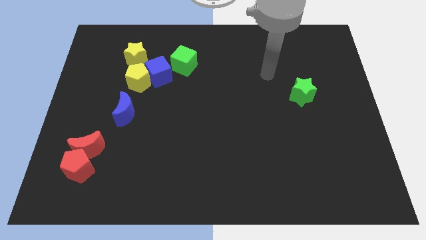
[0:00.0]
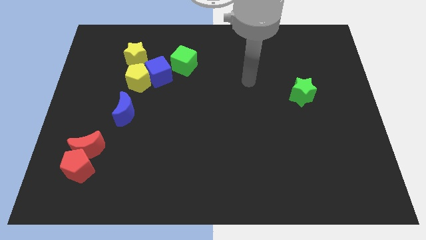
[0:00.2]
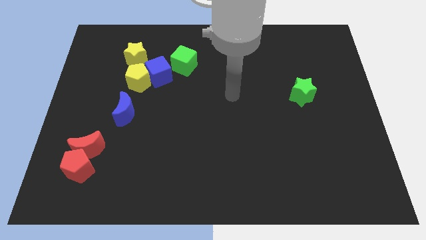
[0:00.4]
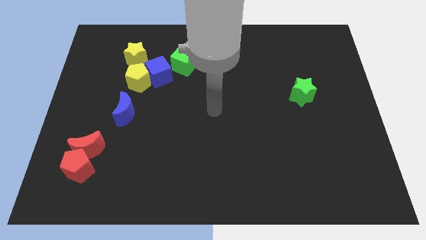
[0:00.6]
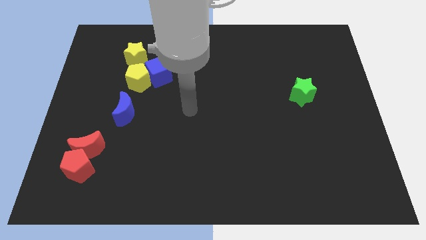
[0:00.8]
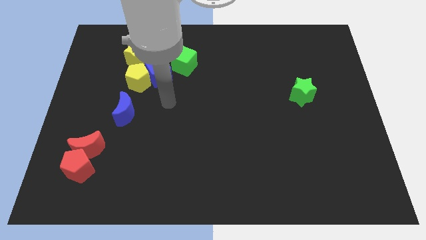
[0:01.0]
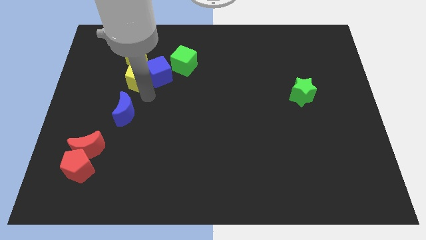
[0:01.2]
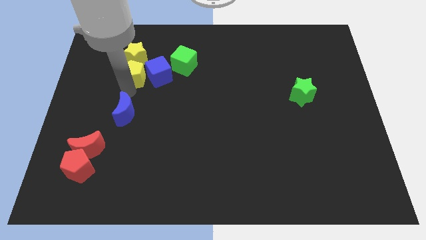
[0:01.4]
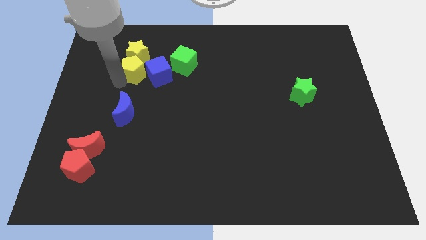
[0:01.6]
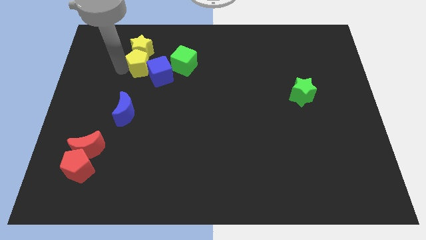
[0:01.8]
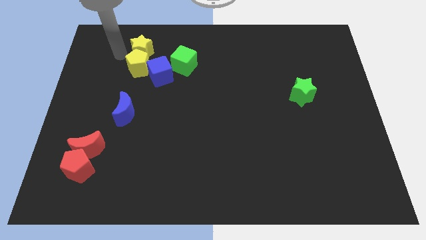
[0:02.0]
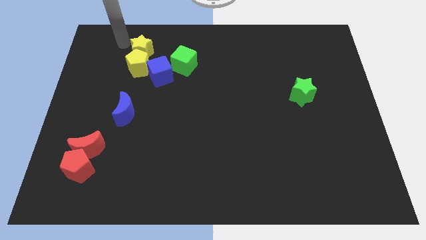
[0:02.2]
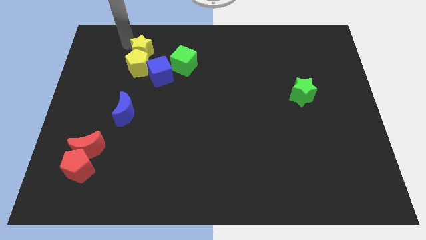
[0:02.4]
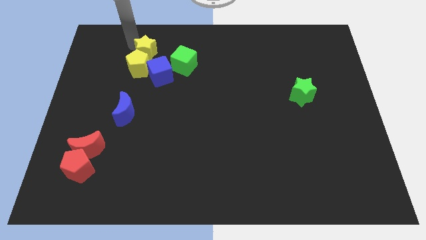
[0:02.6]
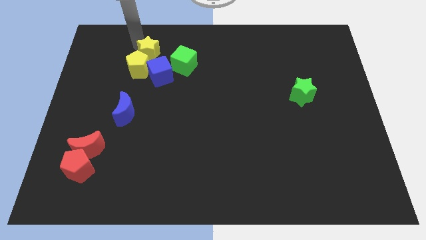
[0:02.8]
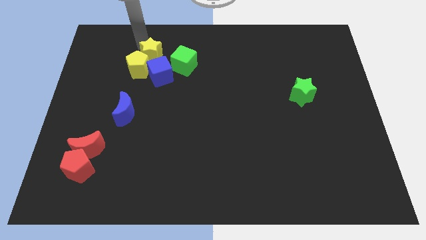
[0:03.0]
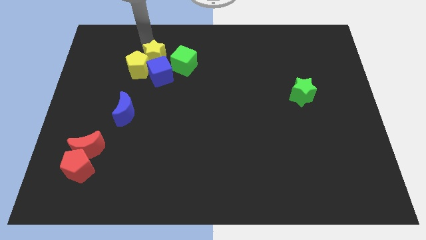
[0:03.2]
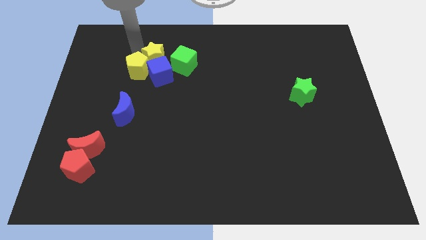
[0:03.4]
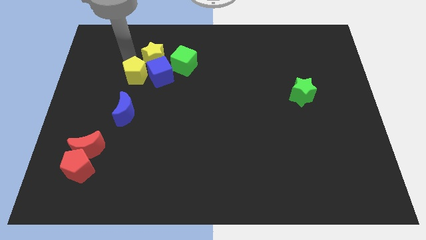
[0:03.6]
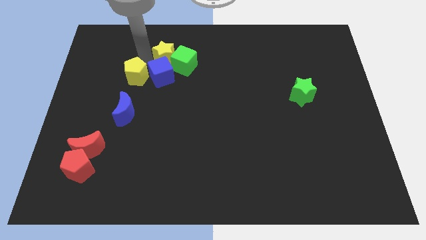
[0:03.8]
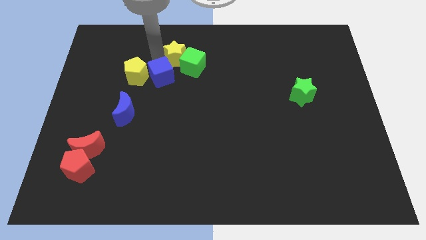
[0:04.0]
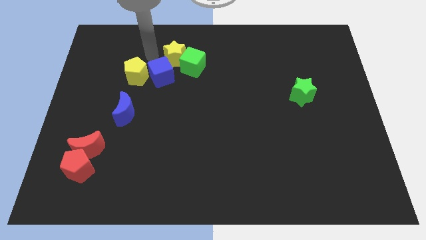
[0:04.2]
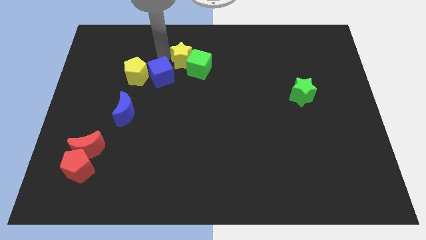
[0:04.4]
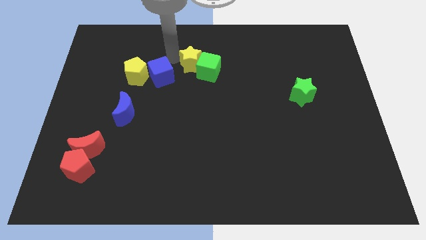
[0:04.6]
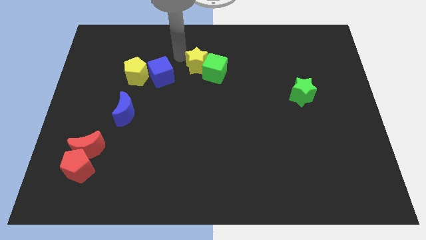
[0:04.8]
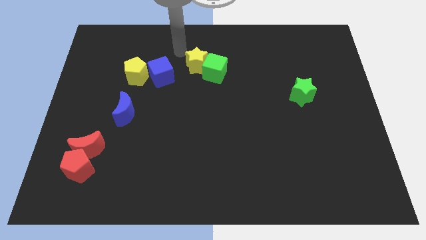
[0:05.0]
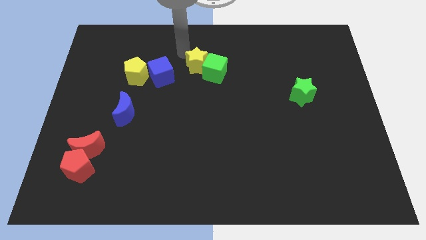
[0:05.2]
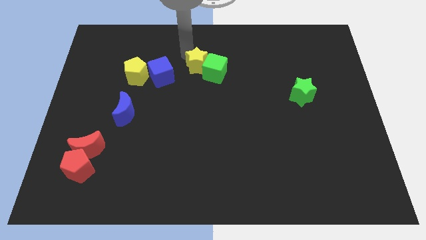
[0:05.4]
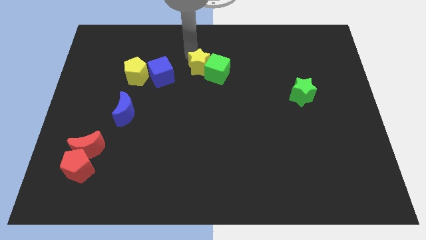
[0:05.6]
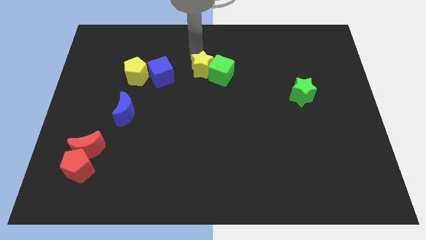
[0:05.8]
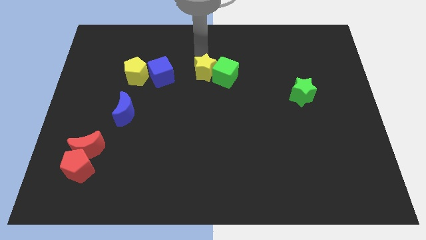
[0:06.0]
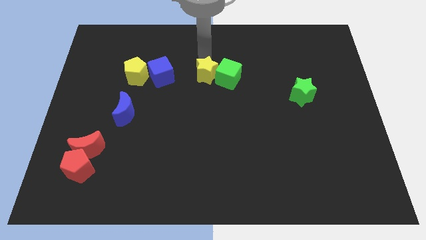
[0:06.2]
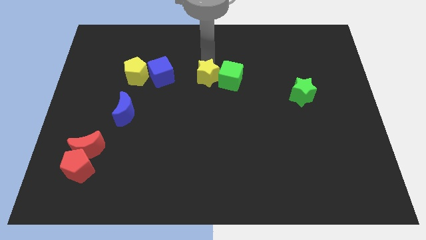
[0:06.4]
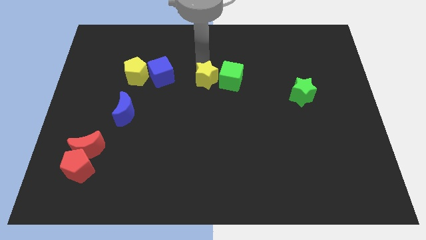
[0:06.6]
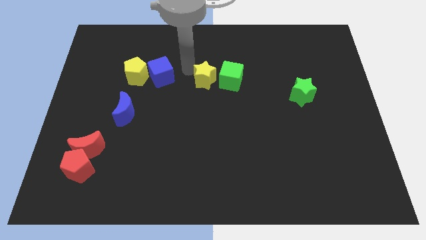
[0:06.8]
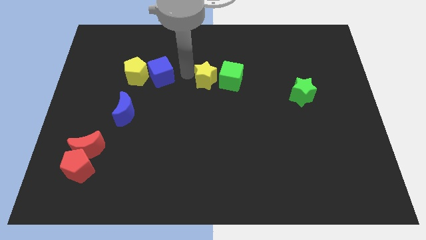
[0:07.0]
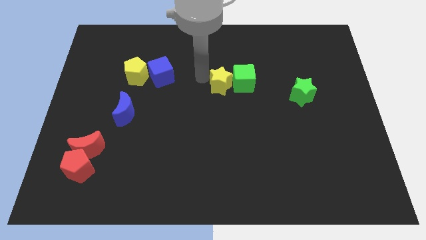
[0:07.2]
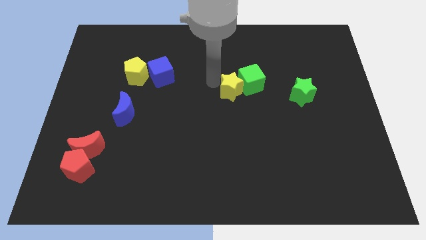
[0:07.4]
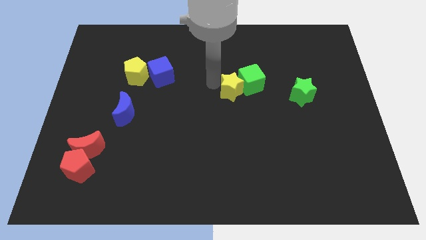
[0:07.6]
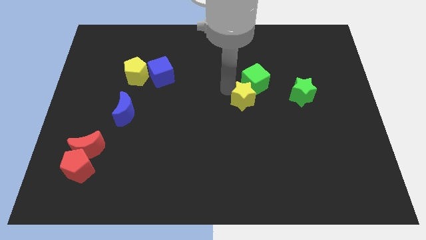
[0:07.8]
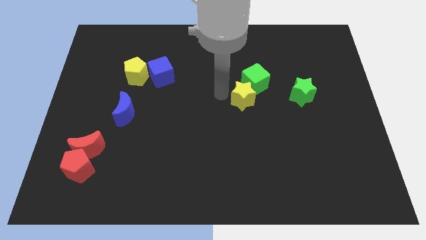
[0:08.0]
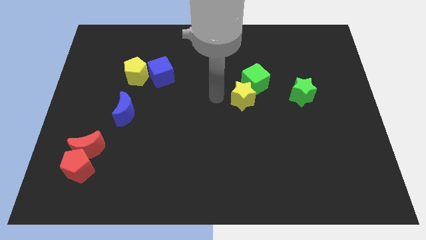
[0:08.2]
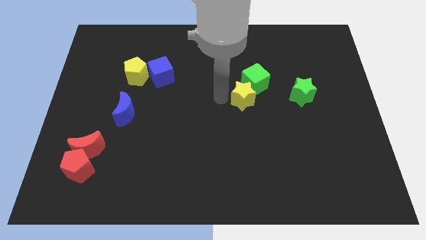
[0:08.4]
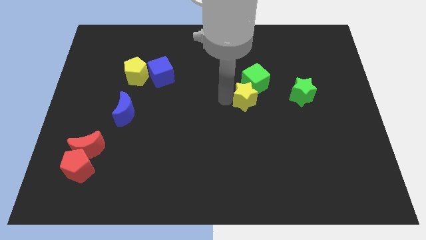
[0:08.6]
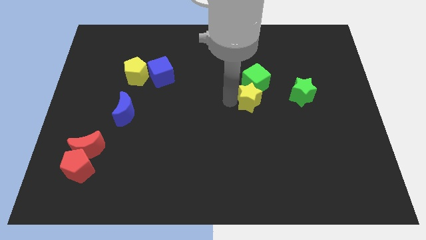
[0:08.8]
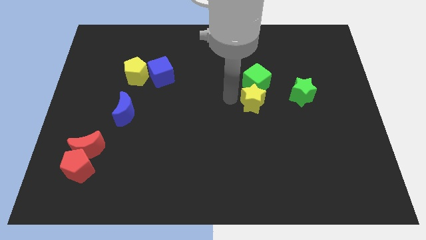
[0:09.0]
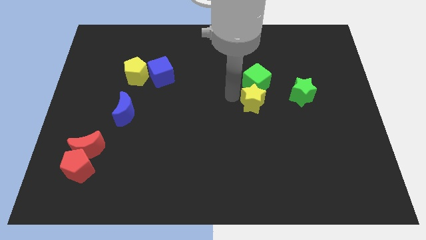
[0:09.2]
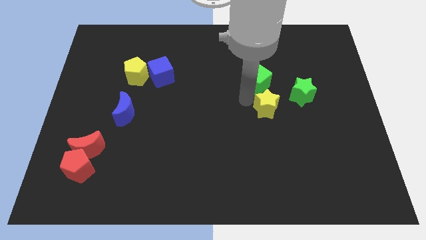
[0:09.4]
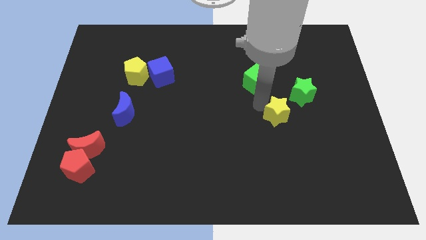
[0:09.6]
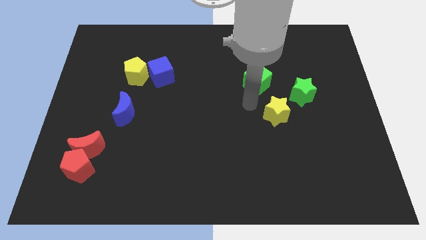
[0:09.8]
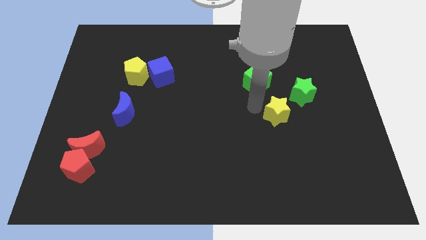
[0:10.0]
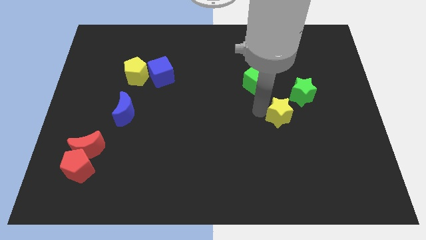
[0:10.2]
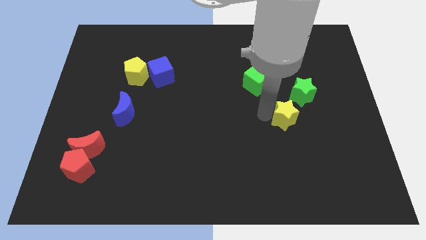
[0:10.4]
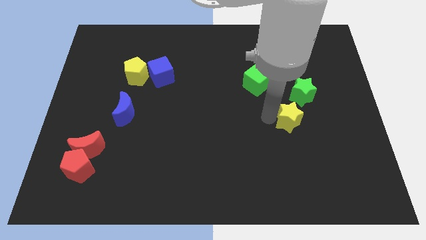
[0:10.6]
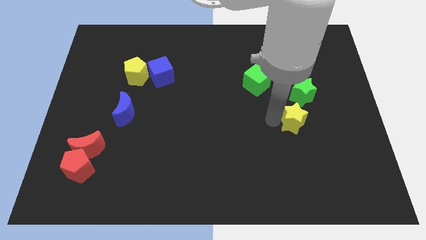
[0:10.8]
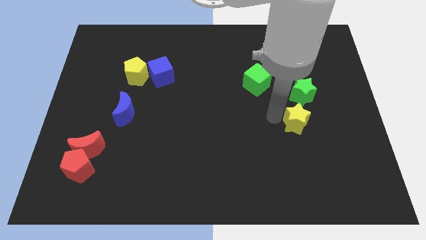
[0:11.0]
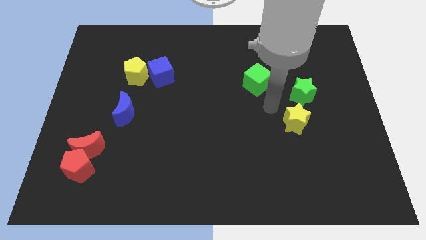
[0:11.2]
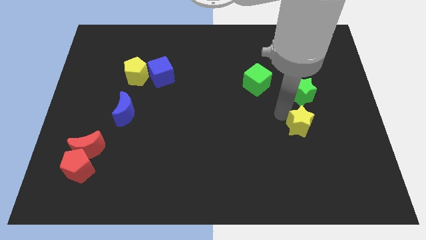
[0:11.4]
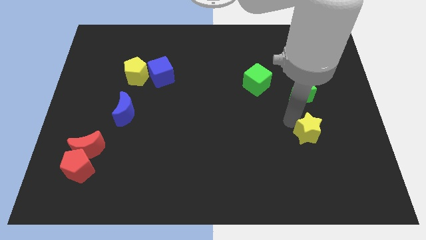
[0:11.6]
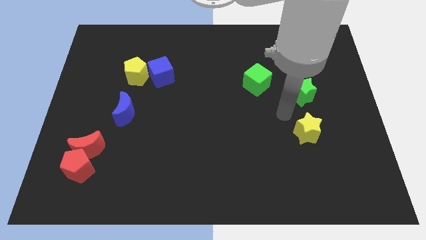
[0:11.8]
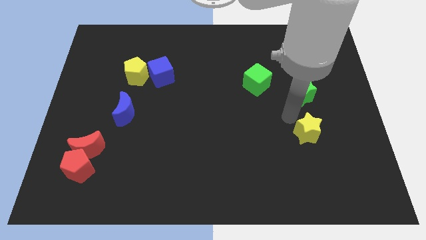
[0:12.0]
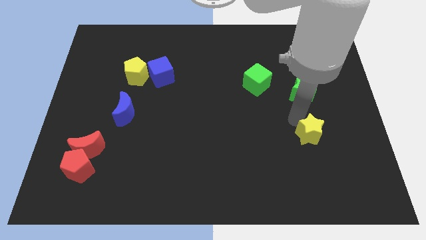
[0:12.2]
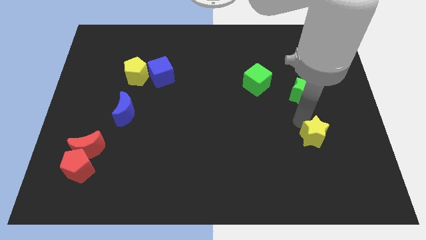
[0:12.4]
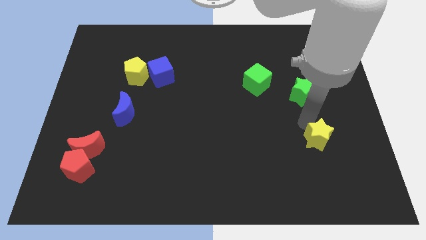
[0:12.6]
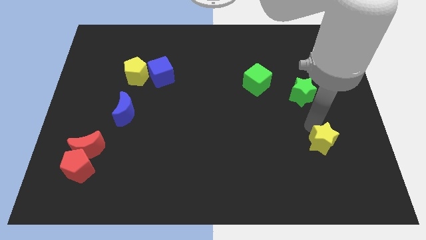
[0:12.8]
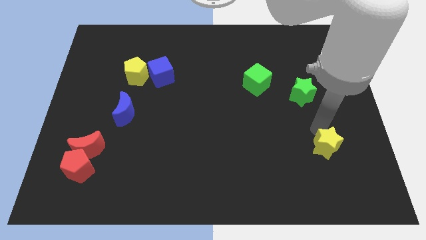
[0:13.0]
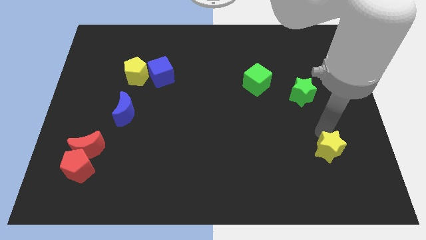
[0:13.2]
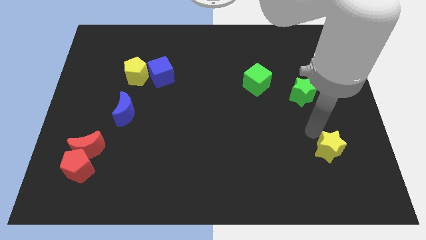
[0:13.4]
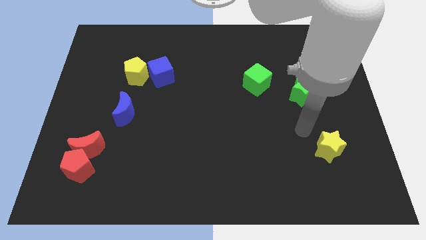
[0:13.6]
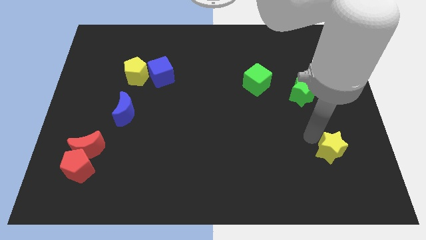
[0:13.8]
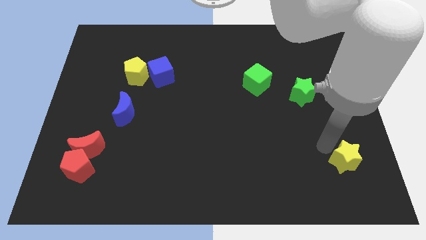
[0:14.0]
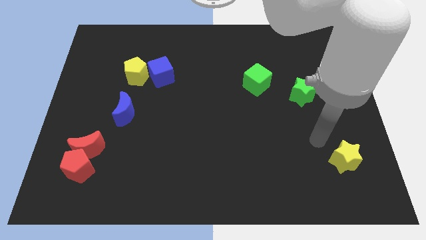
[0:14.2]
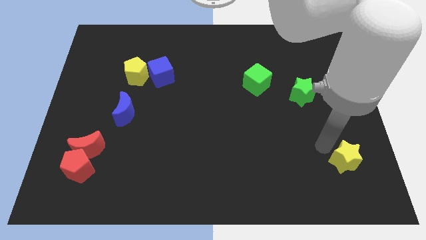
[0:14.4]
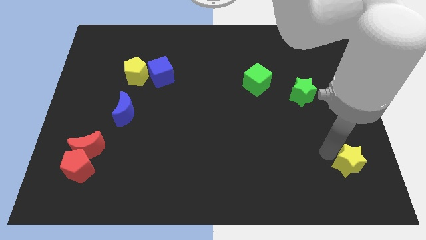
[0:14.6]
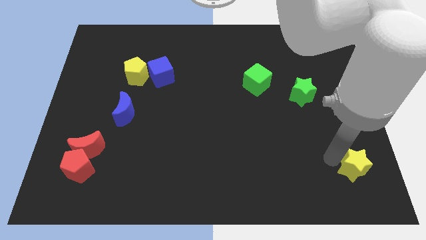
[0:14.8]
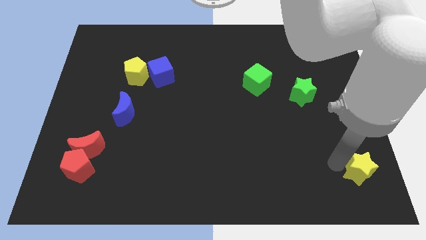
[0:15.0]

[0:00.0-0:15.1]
move the yellow star to the lower right corner
